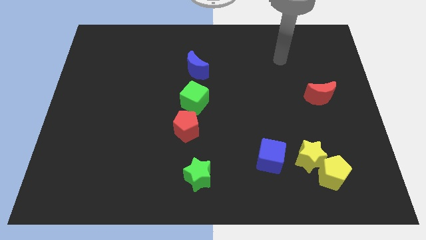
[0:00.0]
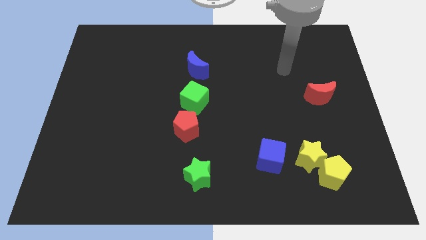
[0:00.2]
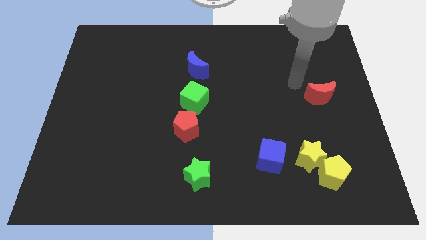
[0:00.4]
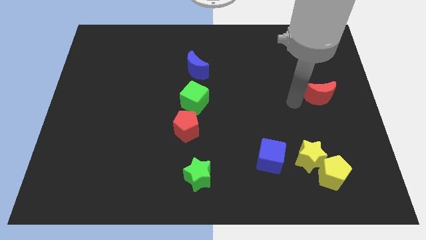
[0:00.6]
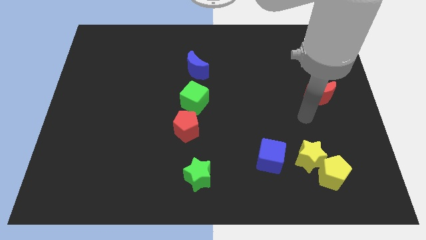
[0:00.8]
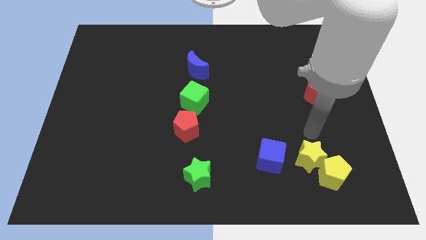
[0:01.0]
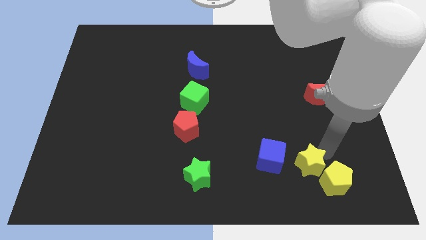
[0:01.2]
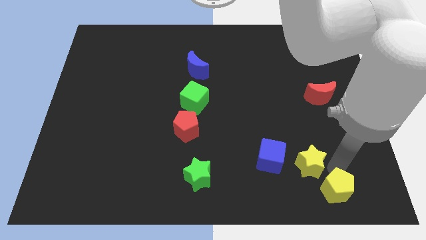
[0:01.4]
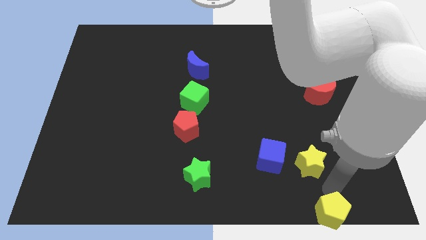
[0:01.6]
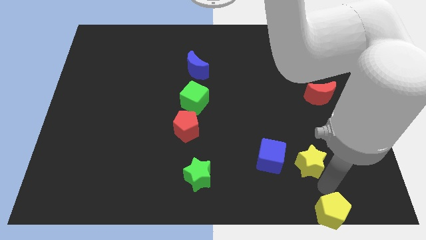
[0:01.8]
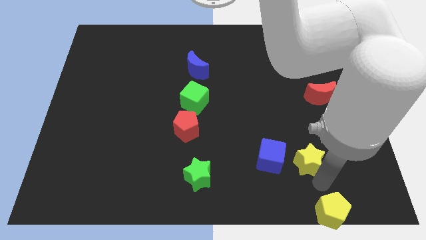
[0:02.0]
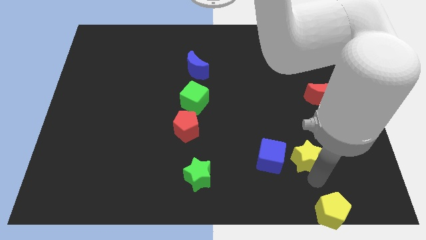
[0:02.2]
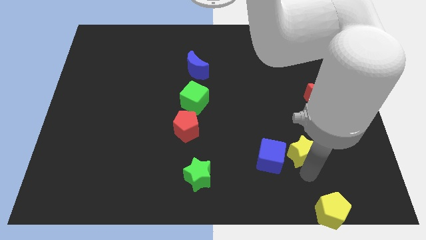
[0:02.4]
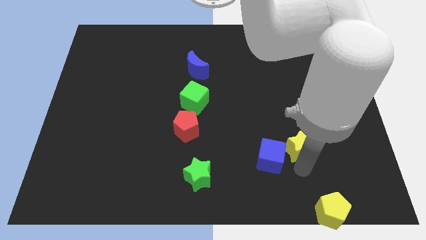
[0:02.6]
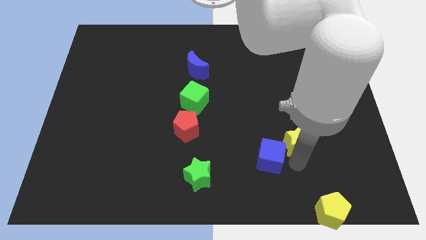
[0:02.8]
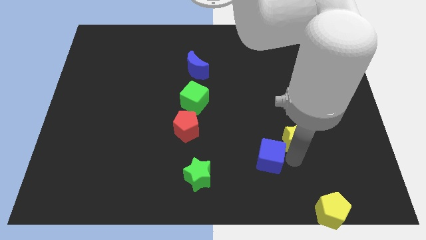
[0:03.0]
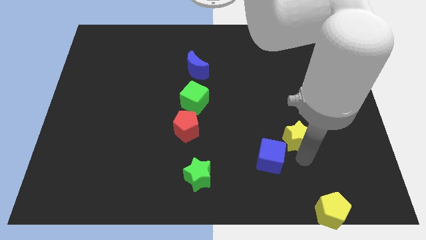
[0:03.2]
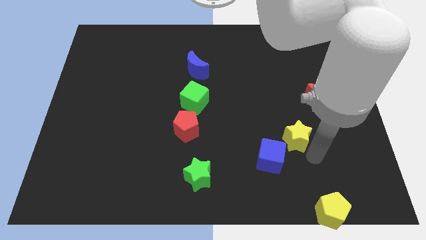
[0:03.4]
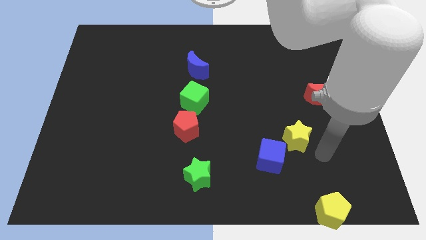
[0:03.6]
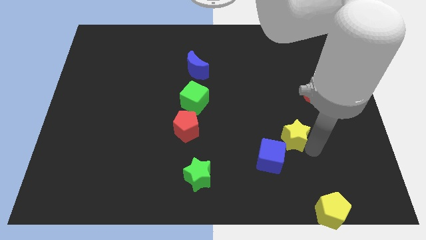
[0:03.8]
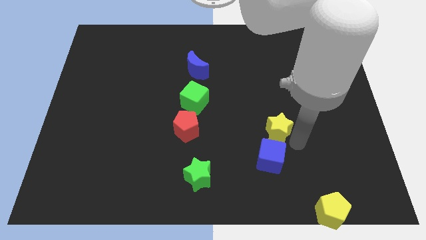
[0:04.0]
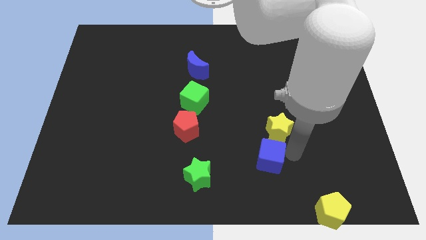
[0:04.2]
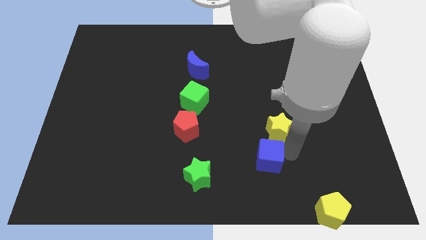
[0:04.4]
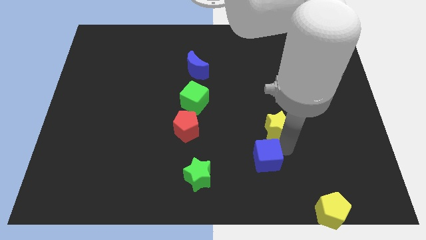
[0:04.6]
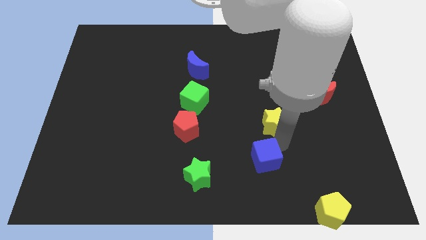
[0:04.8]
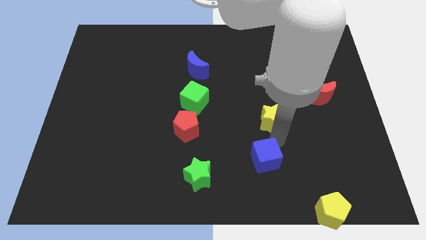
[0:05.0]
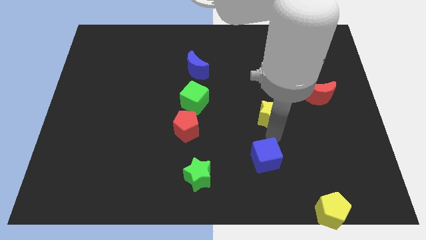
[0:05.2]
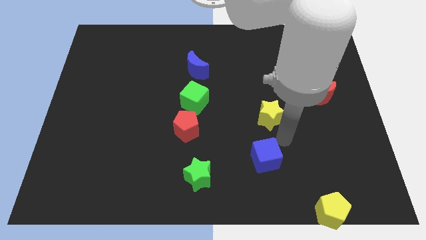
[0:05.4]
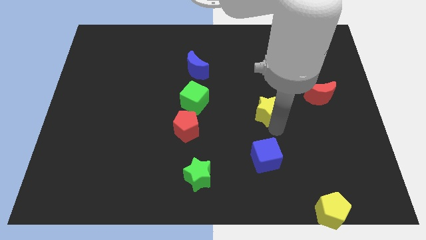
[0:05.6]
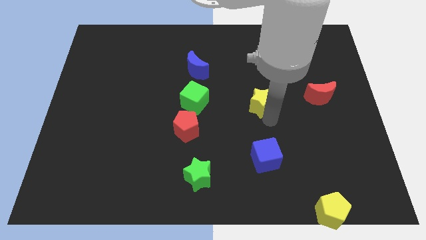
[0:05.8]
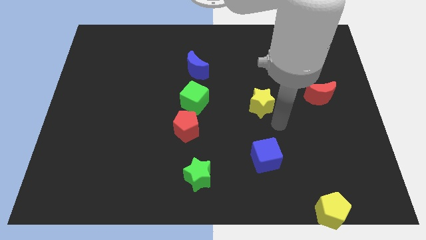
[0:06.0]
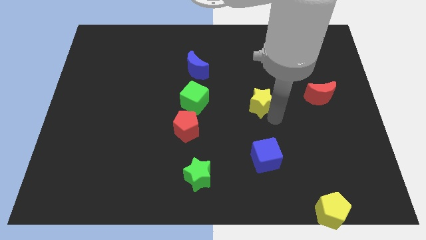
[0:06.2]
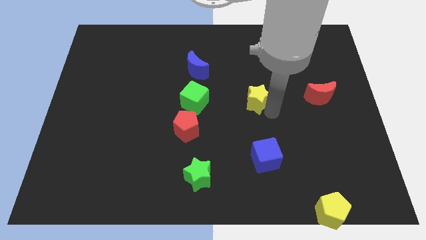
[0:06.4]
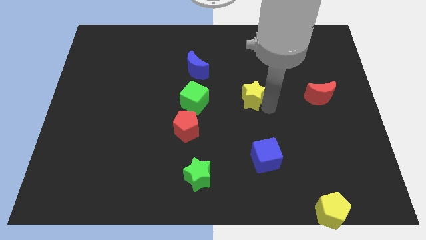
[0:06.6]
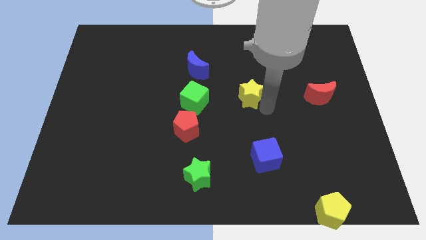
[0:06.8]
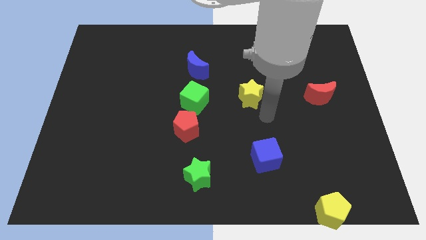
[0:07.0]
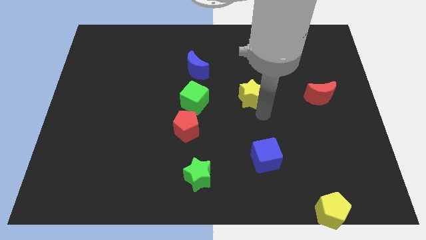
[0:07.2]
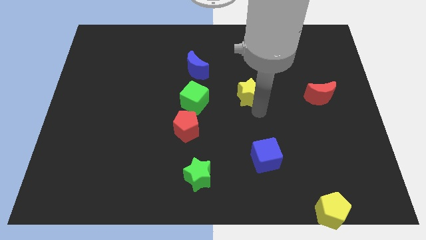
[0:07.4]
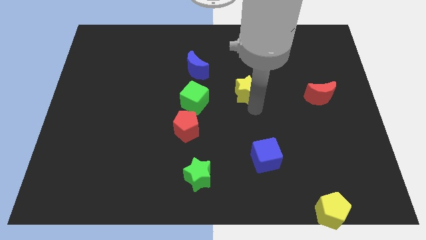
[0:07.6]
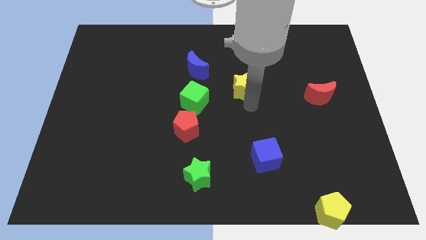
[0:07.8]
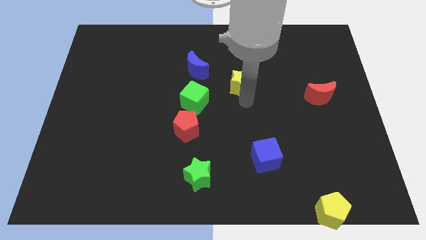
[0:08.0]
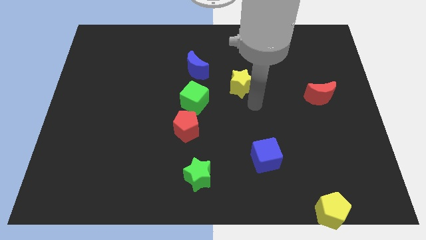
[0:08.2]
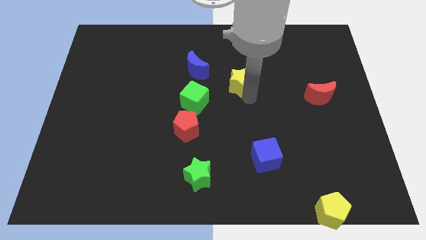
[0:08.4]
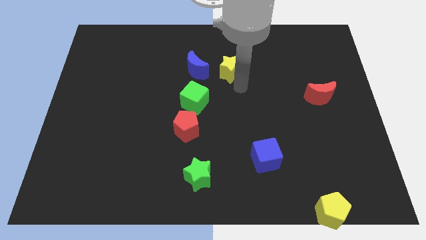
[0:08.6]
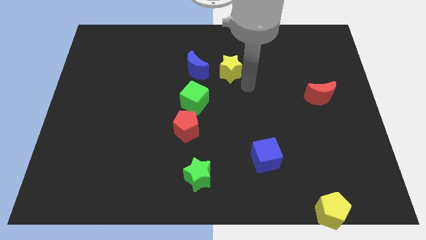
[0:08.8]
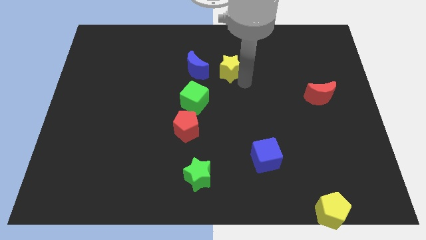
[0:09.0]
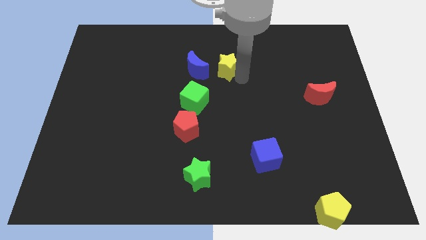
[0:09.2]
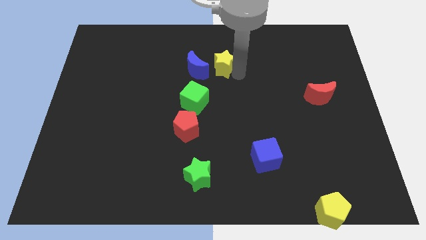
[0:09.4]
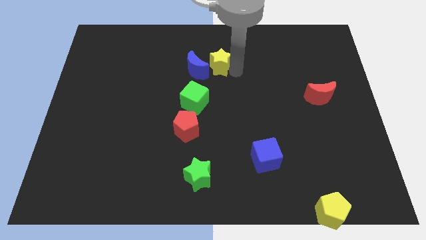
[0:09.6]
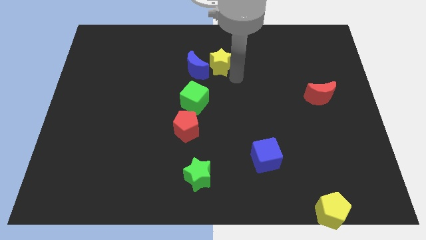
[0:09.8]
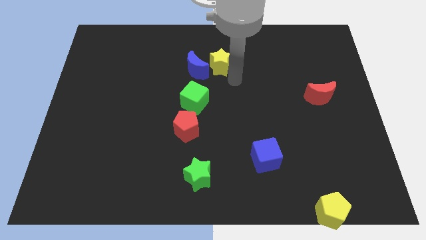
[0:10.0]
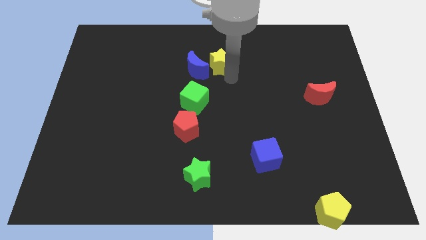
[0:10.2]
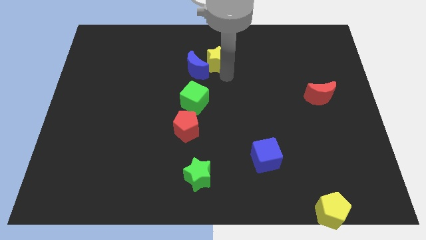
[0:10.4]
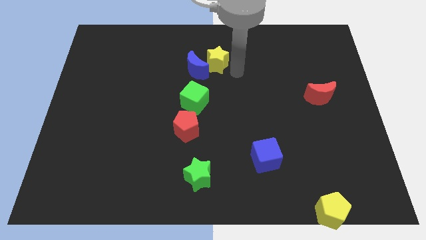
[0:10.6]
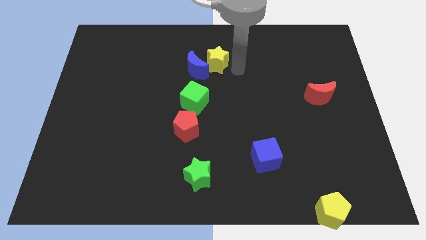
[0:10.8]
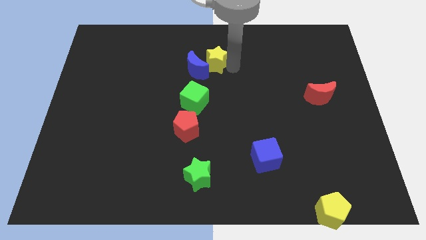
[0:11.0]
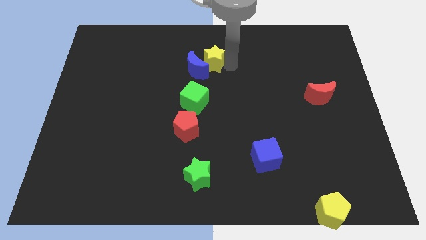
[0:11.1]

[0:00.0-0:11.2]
slide the yellow star to the top of the green cube

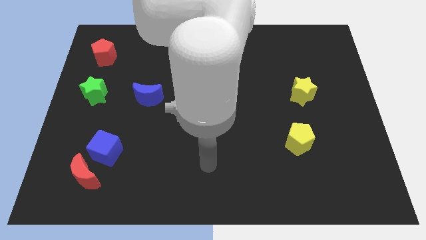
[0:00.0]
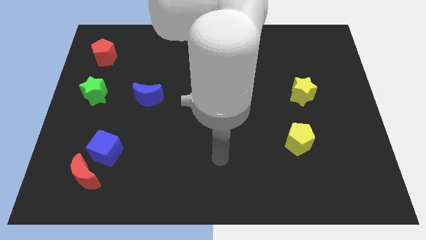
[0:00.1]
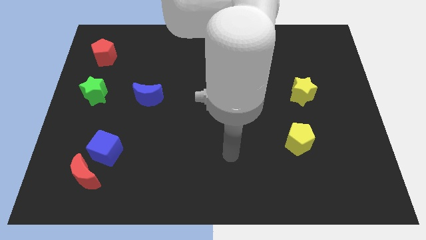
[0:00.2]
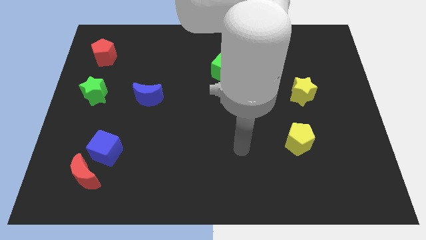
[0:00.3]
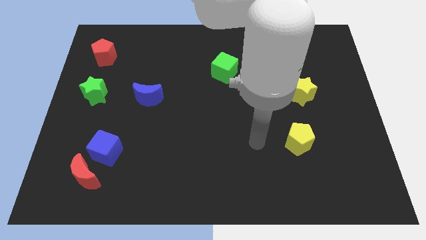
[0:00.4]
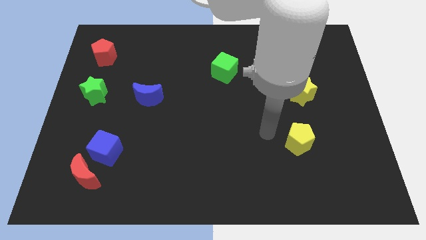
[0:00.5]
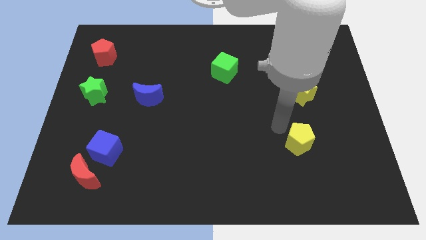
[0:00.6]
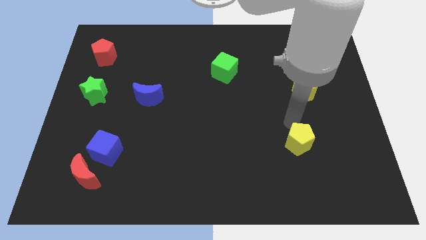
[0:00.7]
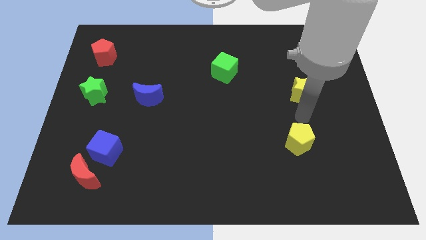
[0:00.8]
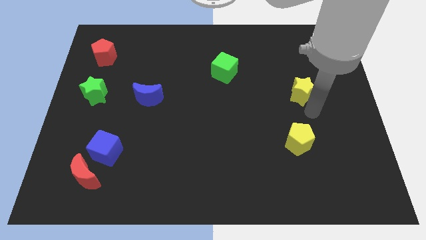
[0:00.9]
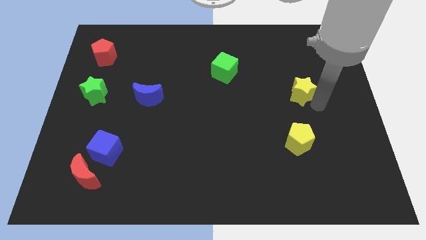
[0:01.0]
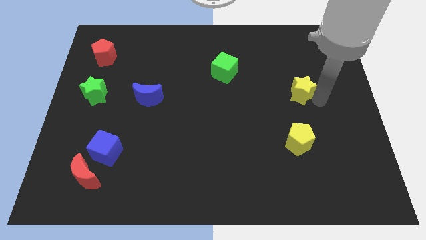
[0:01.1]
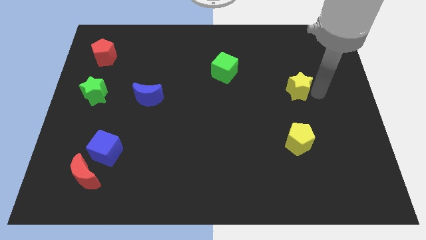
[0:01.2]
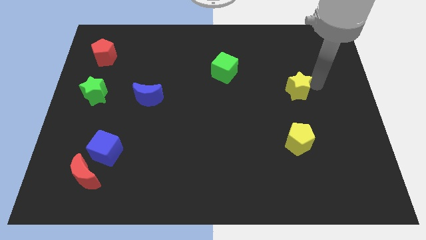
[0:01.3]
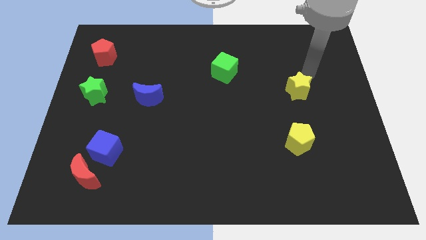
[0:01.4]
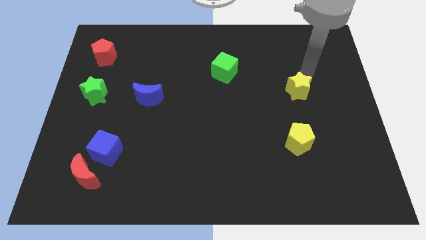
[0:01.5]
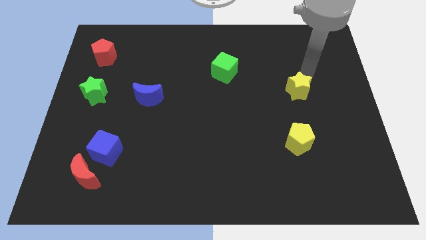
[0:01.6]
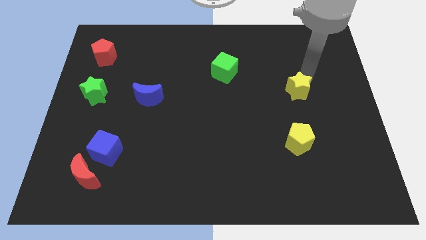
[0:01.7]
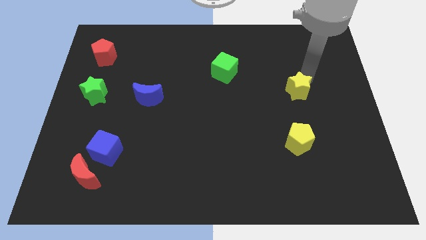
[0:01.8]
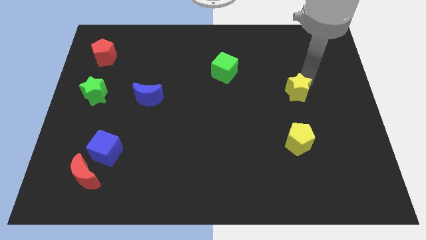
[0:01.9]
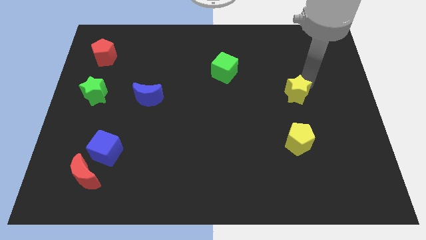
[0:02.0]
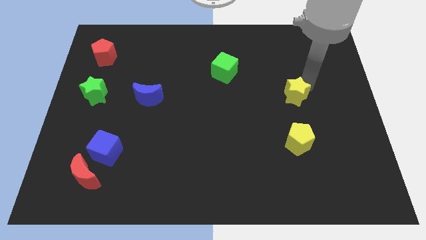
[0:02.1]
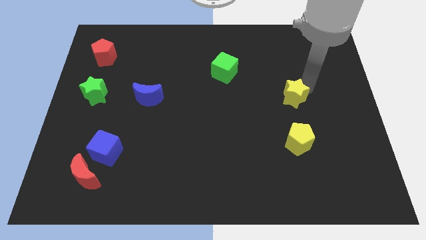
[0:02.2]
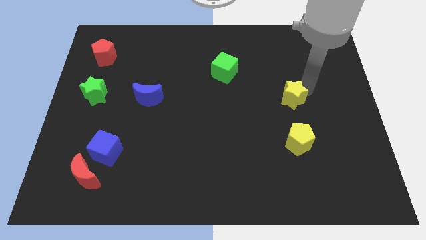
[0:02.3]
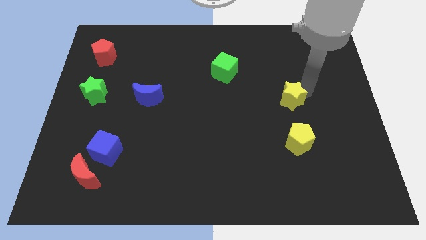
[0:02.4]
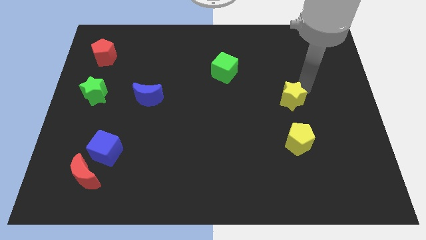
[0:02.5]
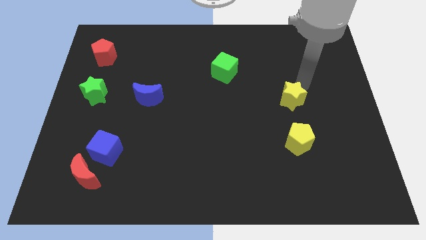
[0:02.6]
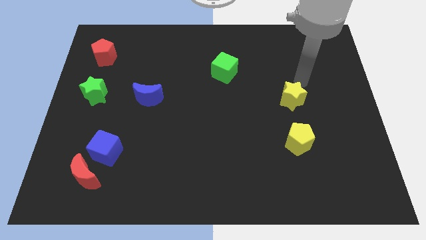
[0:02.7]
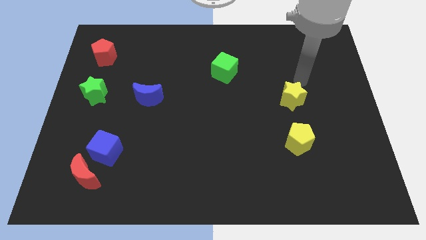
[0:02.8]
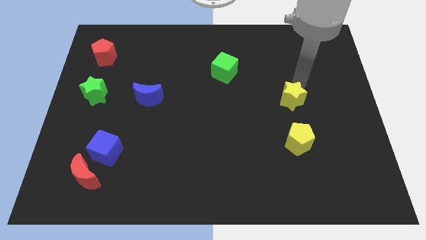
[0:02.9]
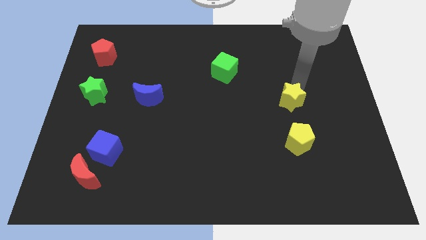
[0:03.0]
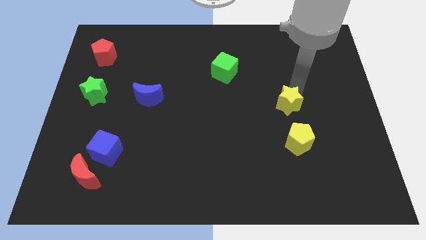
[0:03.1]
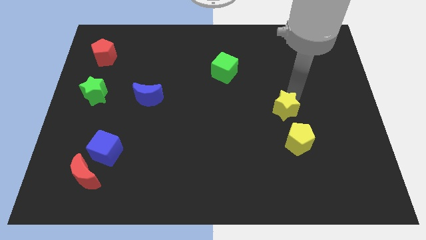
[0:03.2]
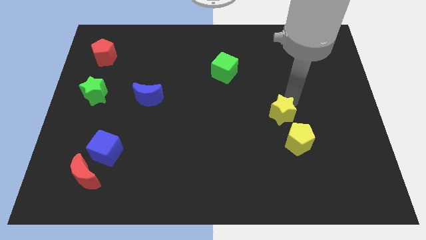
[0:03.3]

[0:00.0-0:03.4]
push the yellow star to the top left of the yellow pentagon
